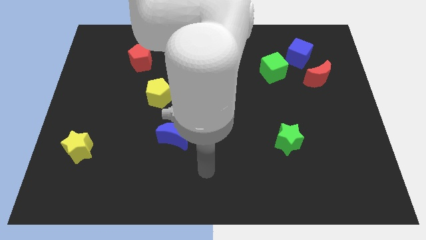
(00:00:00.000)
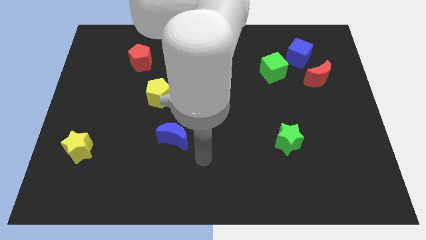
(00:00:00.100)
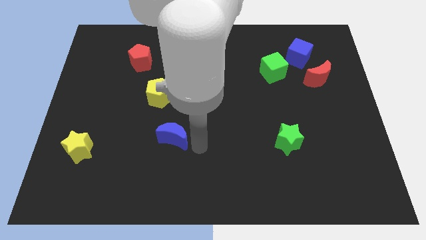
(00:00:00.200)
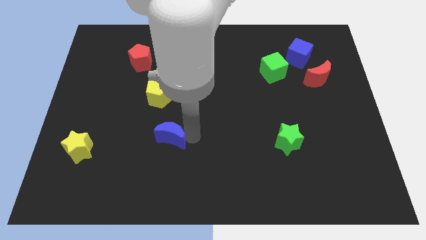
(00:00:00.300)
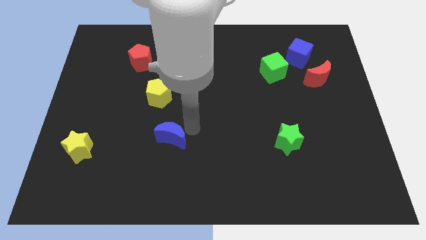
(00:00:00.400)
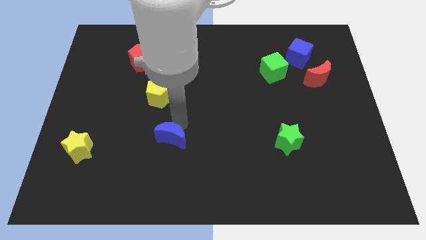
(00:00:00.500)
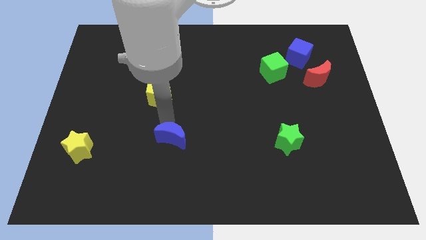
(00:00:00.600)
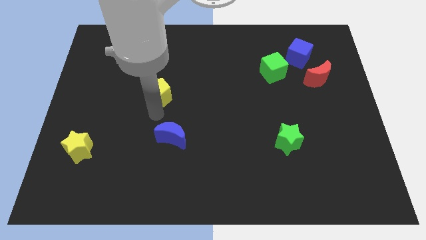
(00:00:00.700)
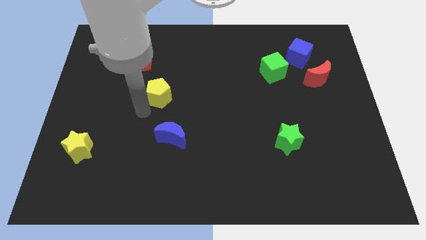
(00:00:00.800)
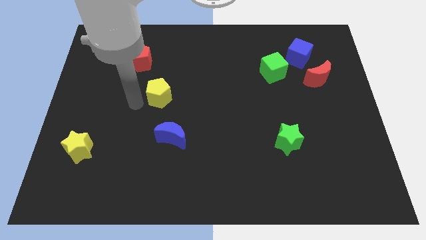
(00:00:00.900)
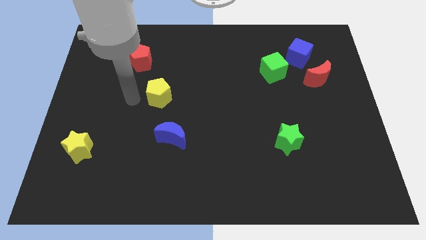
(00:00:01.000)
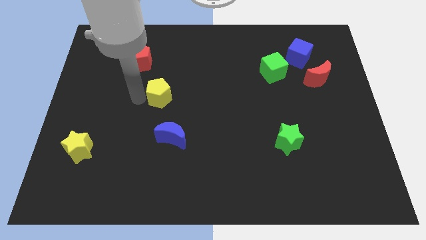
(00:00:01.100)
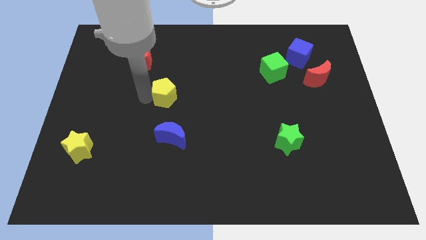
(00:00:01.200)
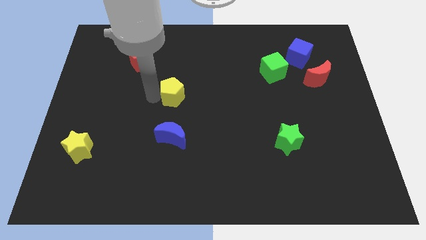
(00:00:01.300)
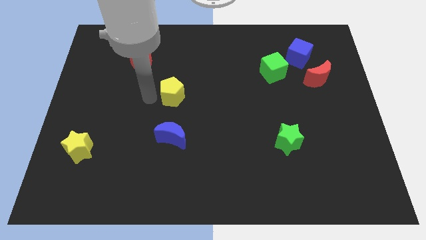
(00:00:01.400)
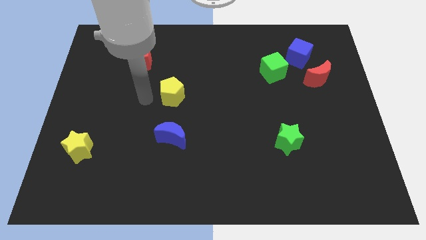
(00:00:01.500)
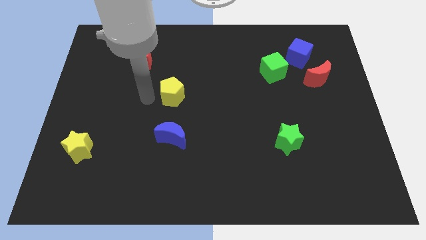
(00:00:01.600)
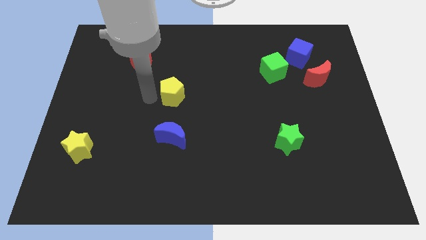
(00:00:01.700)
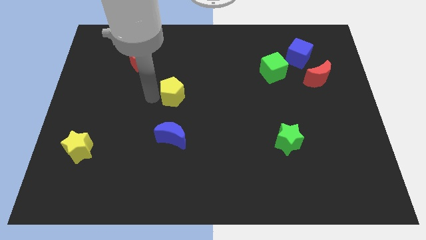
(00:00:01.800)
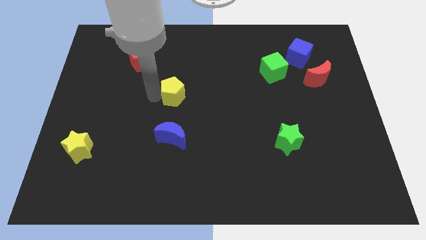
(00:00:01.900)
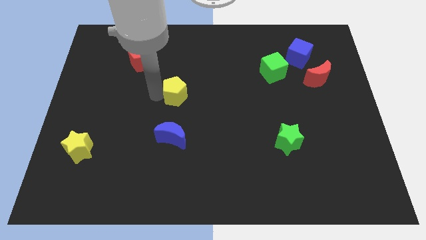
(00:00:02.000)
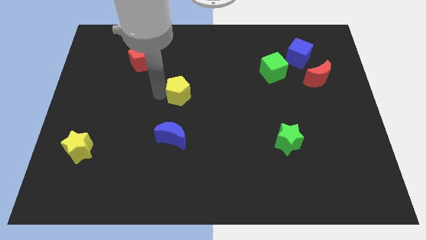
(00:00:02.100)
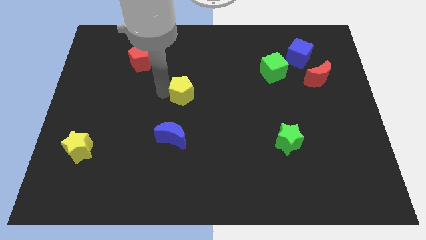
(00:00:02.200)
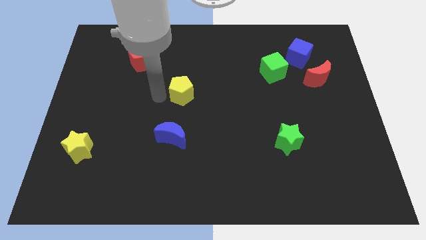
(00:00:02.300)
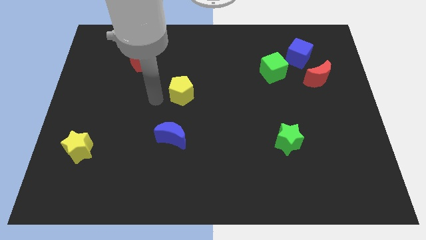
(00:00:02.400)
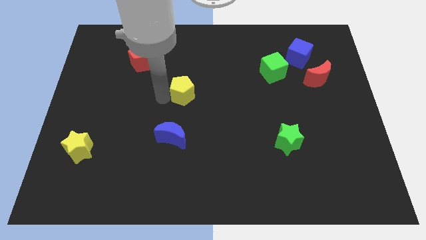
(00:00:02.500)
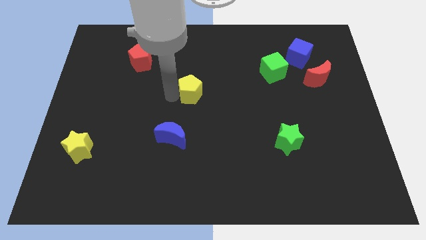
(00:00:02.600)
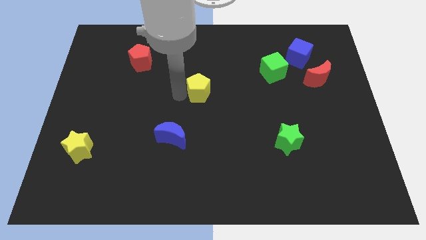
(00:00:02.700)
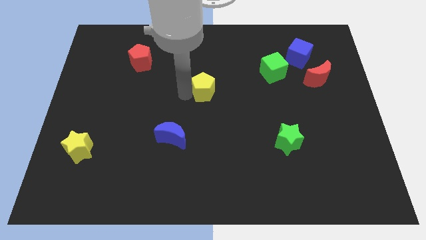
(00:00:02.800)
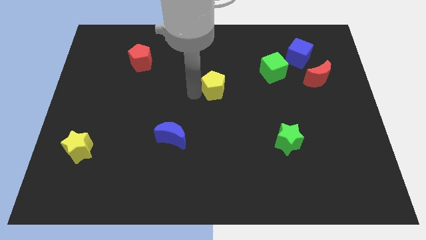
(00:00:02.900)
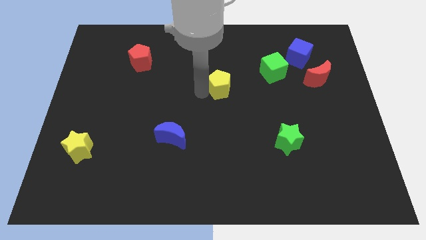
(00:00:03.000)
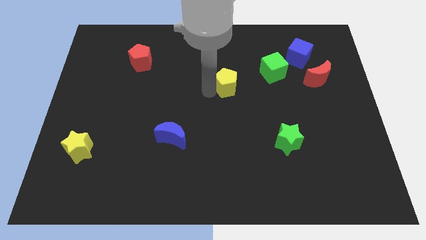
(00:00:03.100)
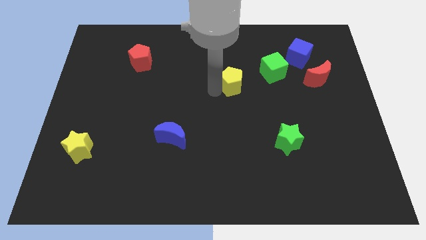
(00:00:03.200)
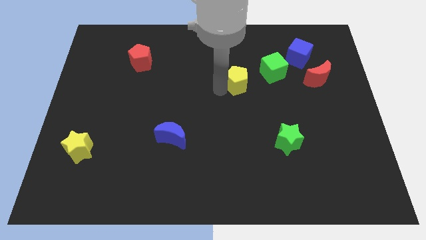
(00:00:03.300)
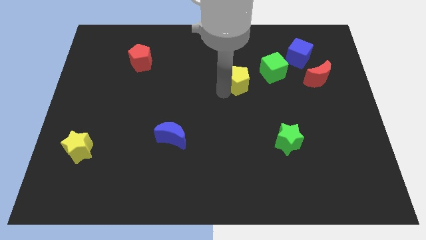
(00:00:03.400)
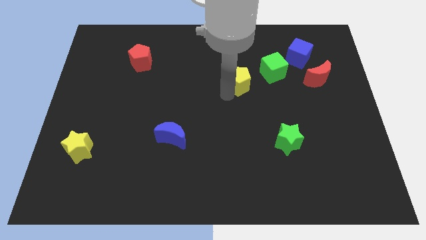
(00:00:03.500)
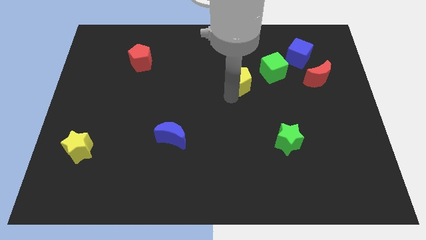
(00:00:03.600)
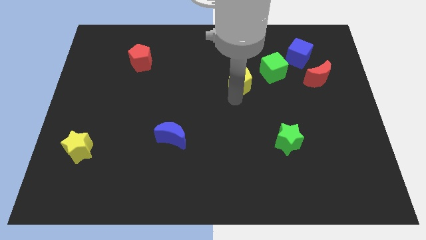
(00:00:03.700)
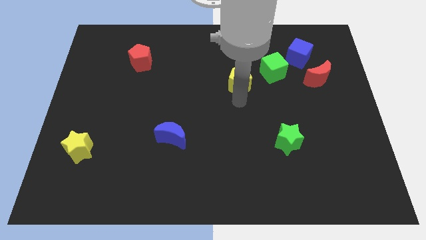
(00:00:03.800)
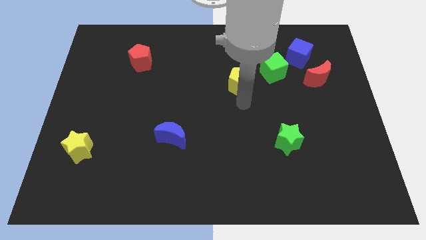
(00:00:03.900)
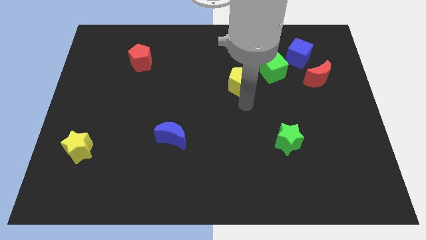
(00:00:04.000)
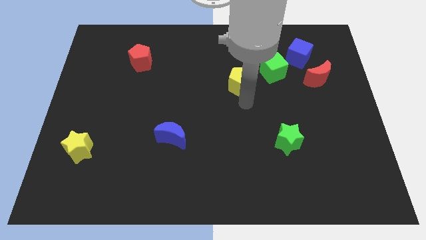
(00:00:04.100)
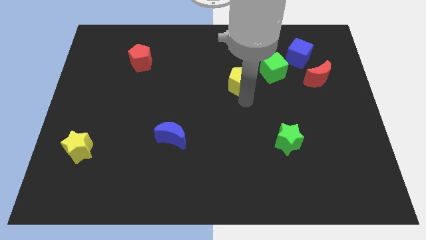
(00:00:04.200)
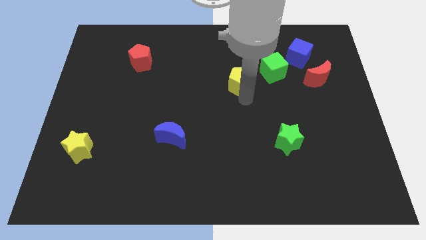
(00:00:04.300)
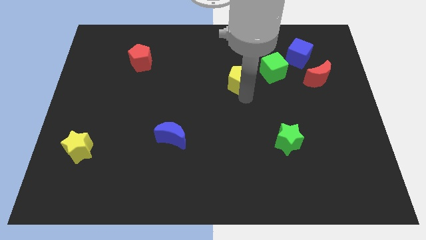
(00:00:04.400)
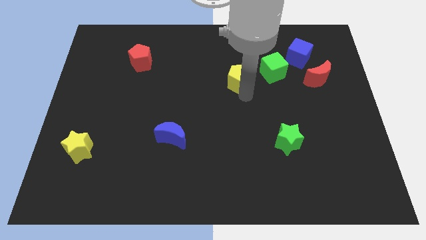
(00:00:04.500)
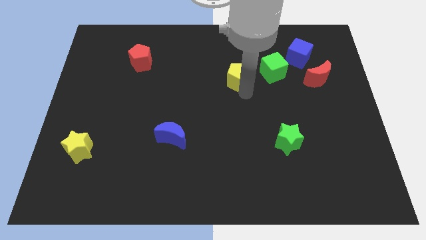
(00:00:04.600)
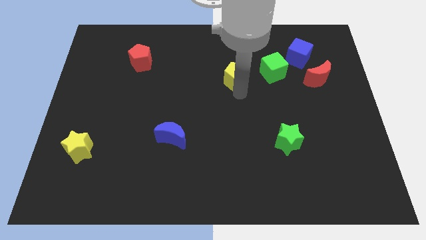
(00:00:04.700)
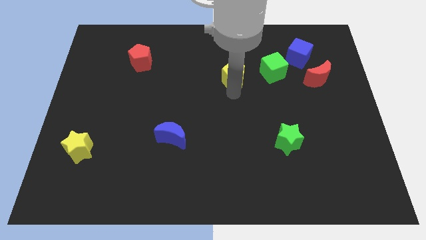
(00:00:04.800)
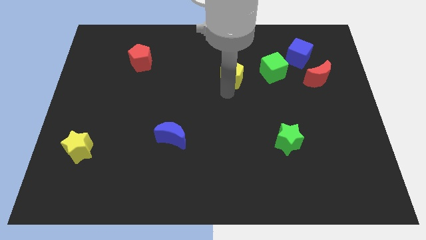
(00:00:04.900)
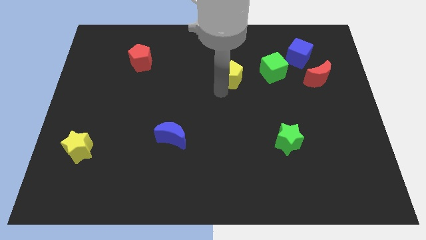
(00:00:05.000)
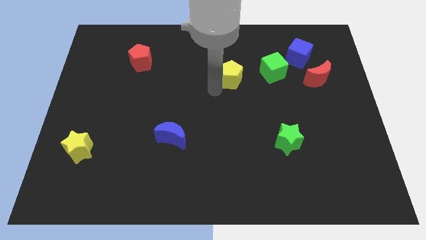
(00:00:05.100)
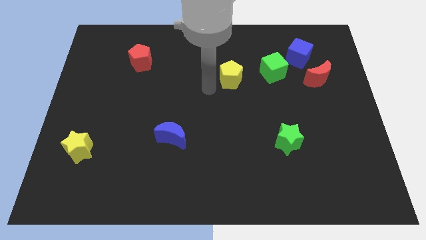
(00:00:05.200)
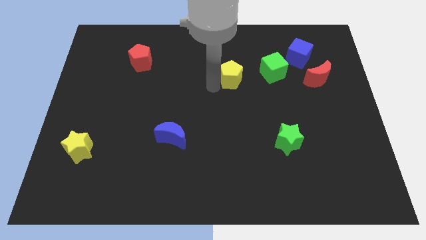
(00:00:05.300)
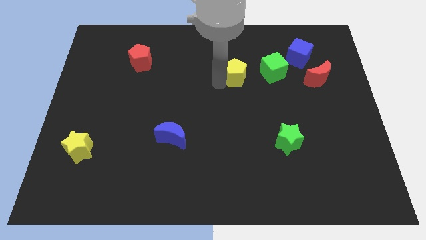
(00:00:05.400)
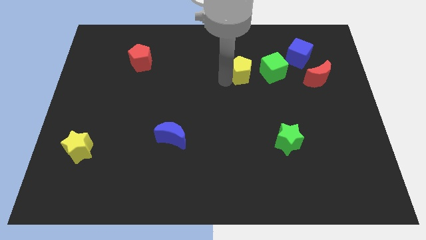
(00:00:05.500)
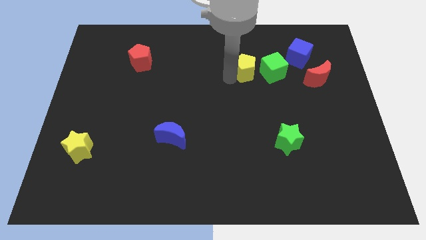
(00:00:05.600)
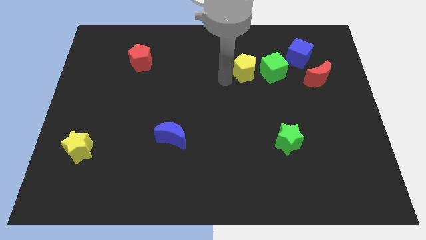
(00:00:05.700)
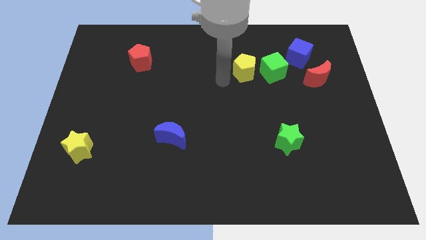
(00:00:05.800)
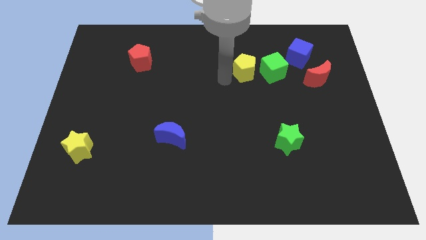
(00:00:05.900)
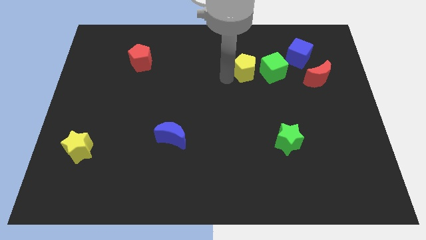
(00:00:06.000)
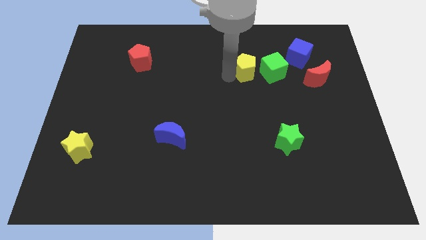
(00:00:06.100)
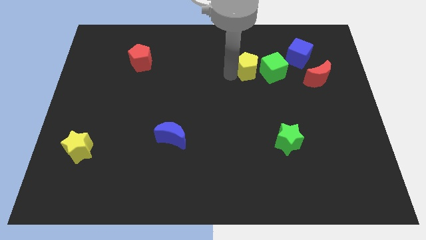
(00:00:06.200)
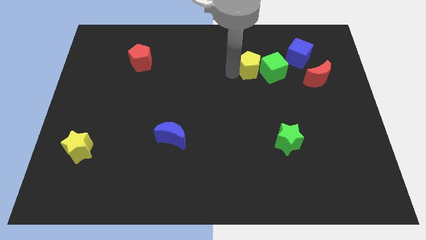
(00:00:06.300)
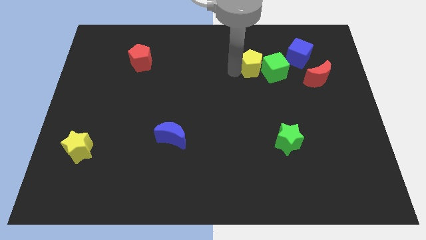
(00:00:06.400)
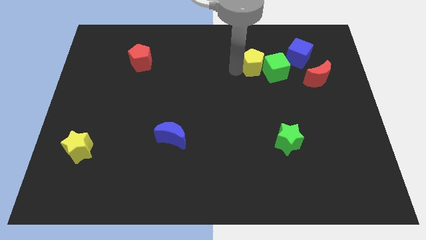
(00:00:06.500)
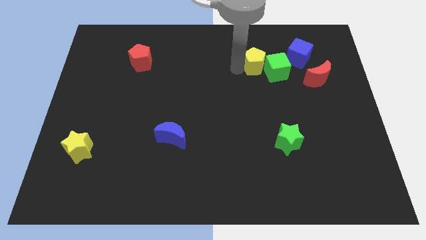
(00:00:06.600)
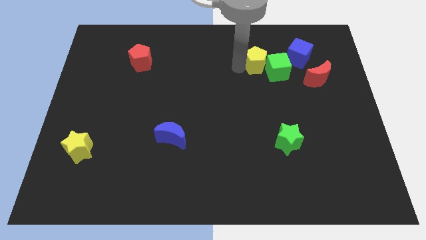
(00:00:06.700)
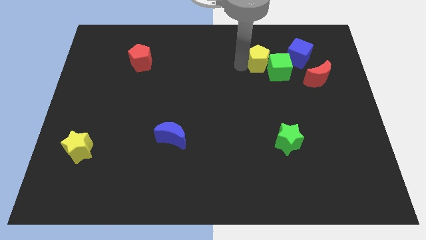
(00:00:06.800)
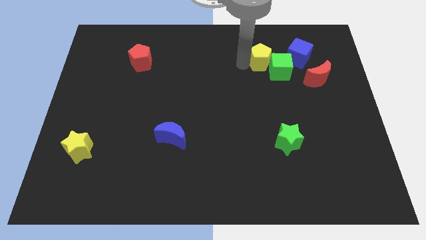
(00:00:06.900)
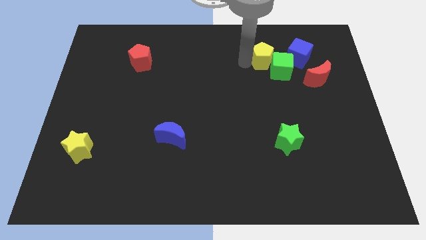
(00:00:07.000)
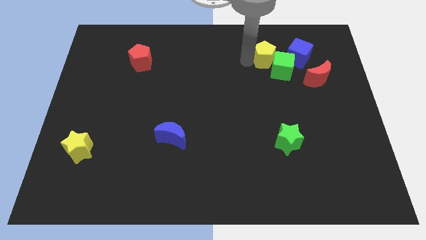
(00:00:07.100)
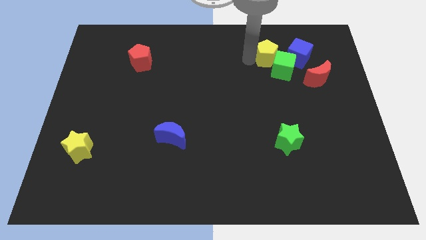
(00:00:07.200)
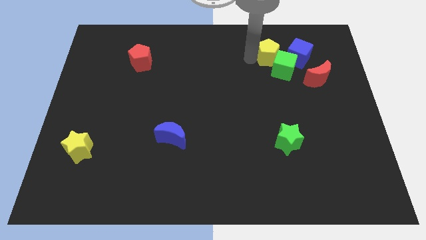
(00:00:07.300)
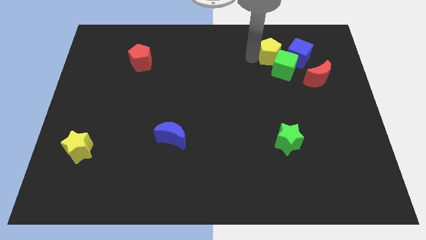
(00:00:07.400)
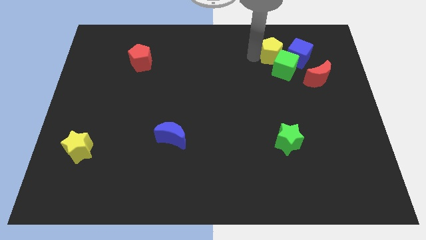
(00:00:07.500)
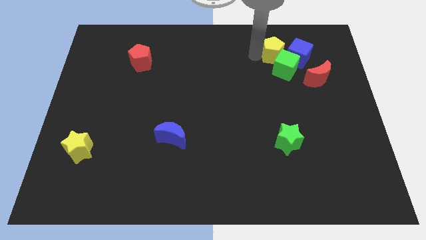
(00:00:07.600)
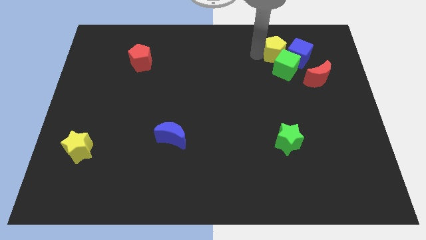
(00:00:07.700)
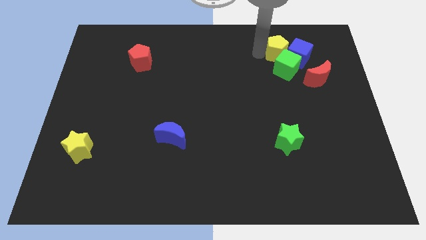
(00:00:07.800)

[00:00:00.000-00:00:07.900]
move the yellow pentagon close to the blue cube
